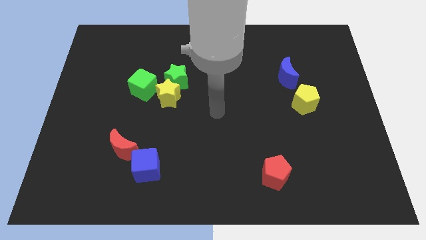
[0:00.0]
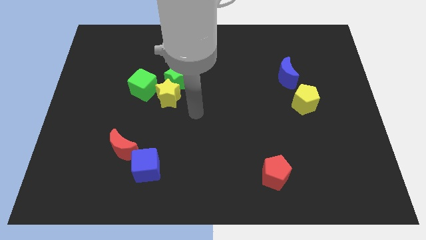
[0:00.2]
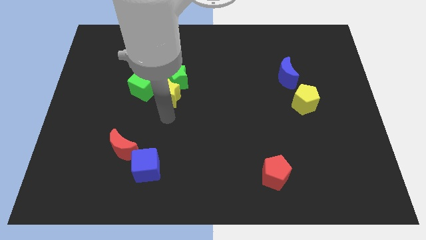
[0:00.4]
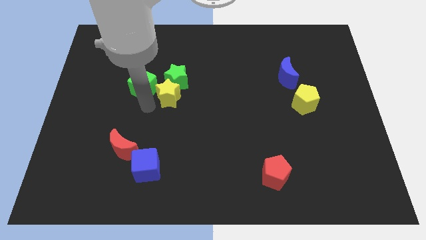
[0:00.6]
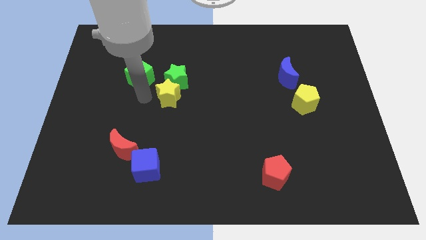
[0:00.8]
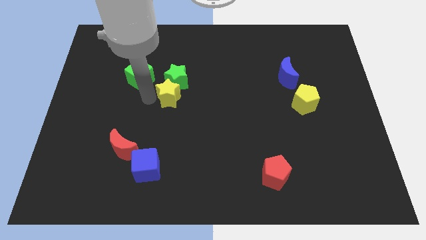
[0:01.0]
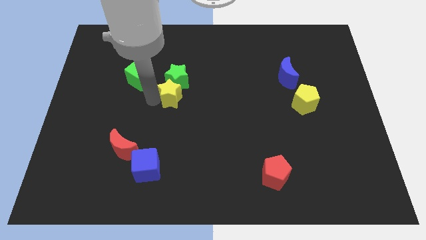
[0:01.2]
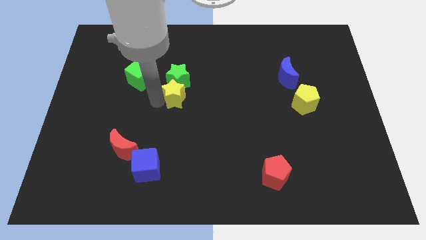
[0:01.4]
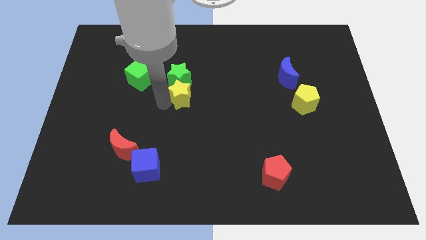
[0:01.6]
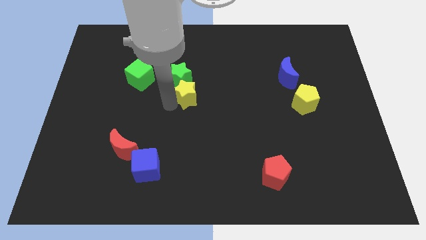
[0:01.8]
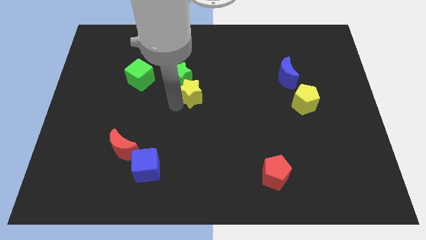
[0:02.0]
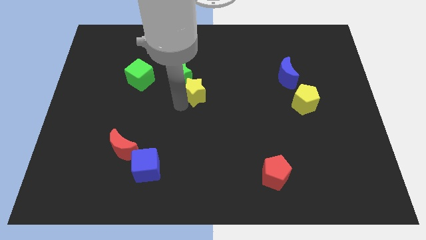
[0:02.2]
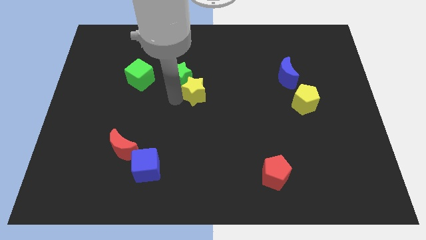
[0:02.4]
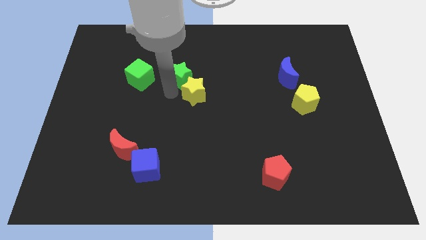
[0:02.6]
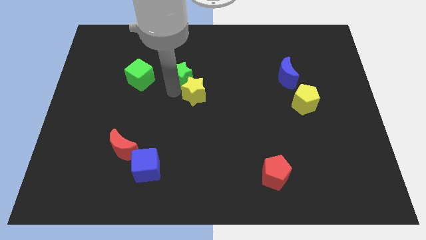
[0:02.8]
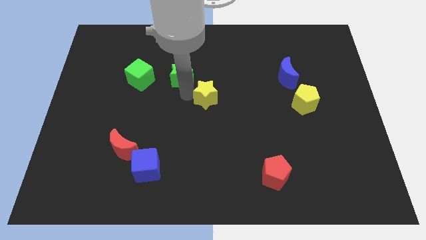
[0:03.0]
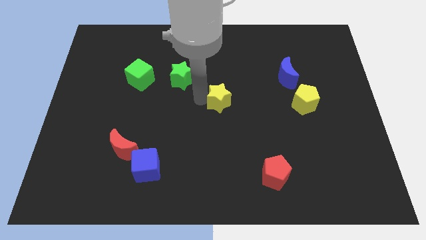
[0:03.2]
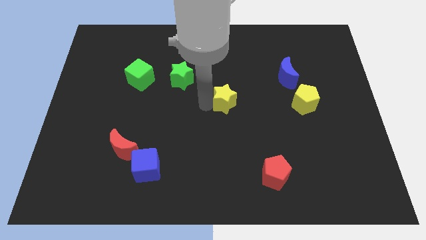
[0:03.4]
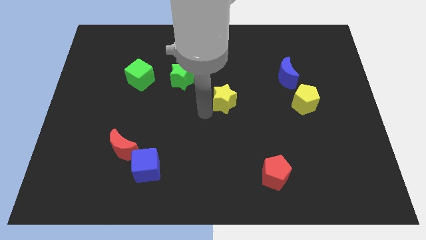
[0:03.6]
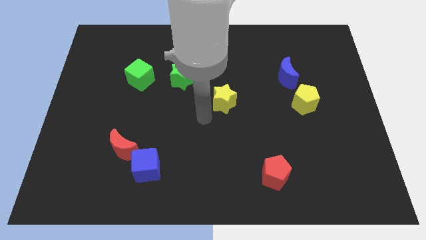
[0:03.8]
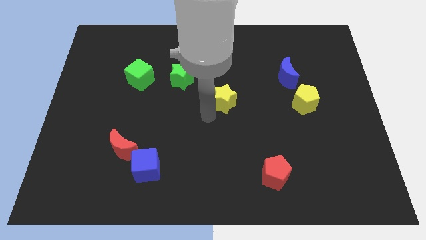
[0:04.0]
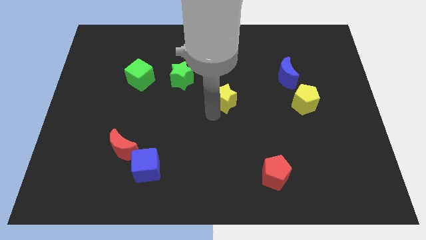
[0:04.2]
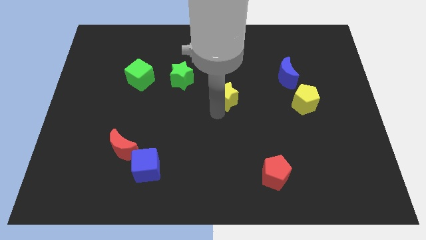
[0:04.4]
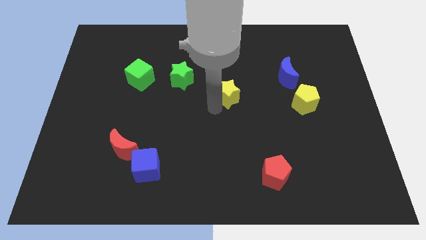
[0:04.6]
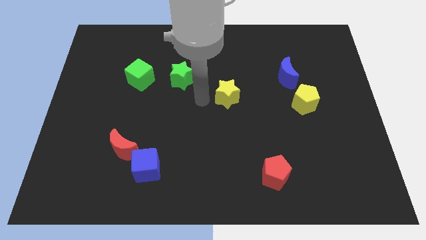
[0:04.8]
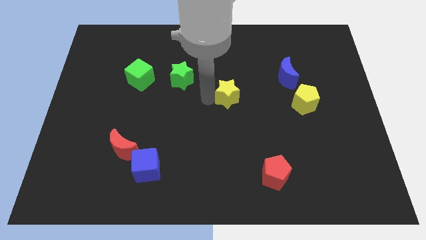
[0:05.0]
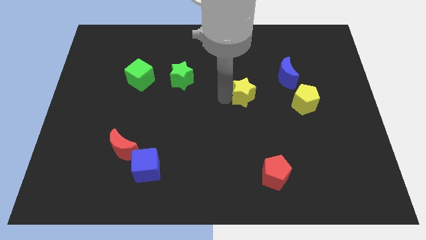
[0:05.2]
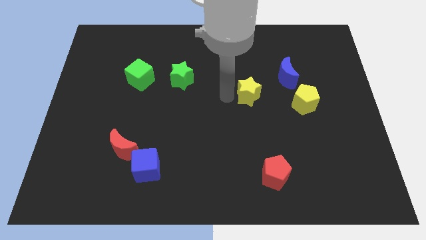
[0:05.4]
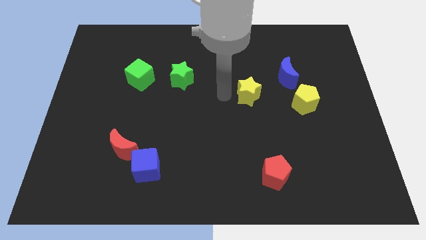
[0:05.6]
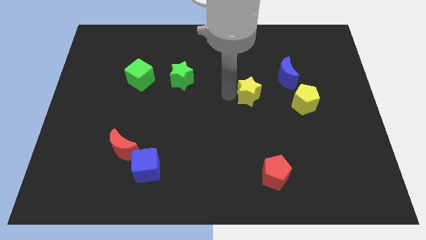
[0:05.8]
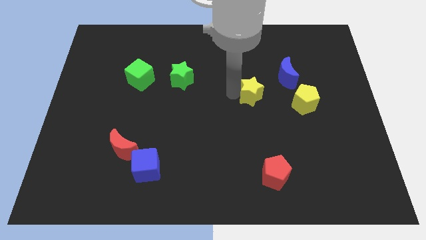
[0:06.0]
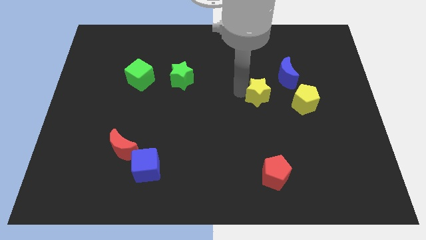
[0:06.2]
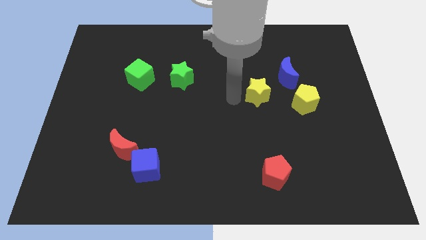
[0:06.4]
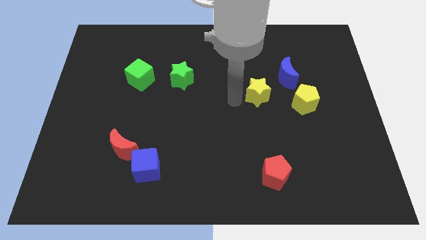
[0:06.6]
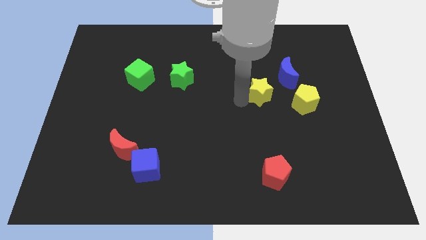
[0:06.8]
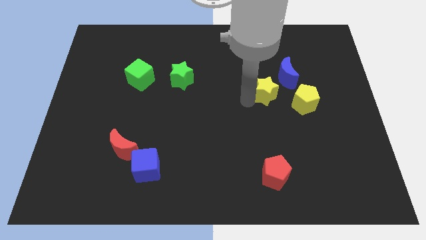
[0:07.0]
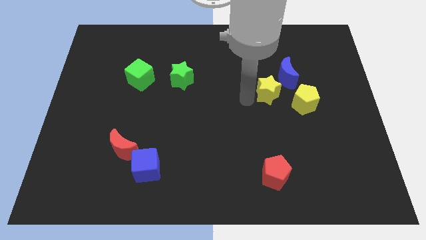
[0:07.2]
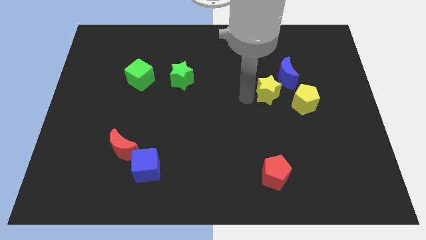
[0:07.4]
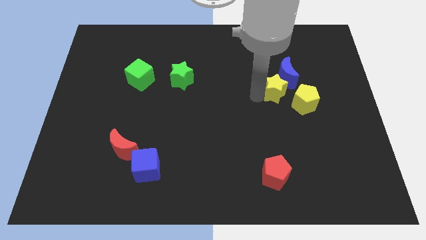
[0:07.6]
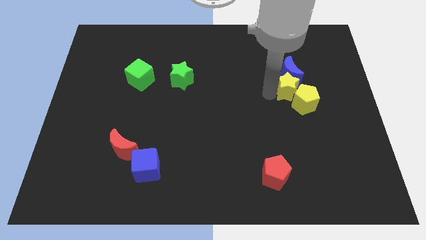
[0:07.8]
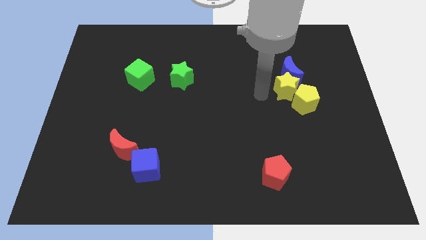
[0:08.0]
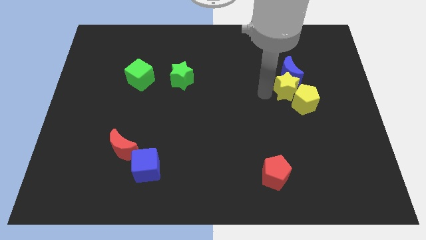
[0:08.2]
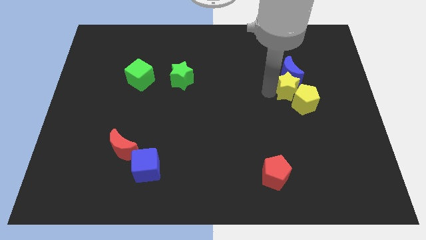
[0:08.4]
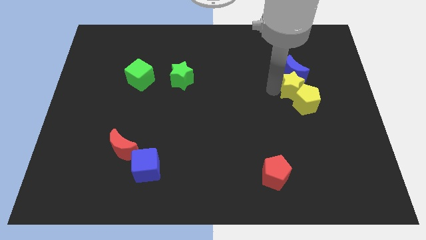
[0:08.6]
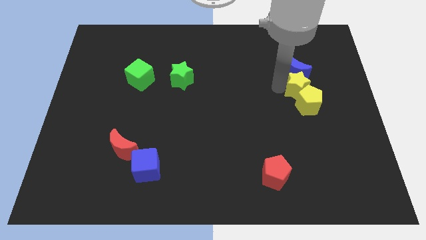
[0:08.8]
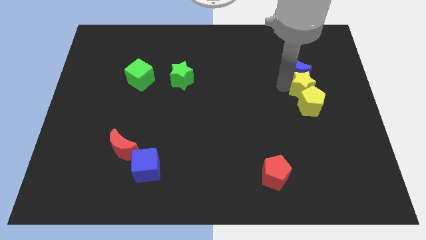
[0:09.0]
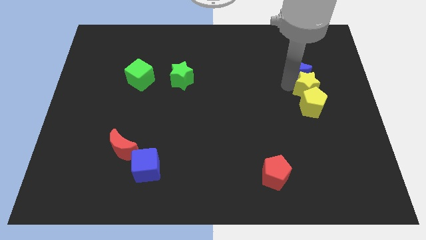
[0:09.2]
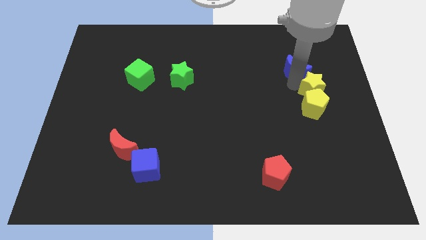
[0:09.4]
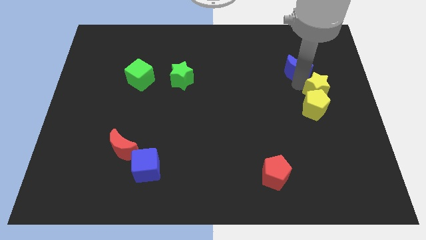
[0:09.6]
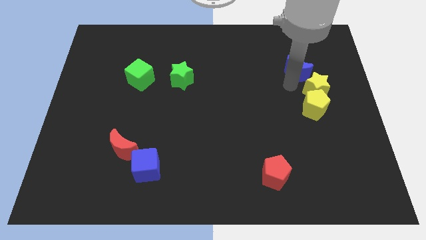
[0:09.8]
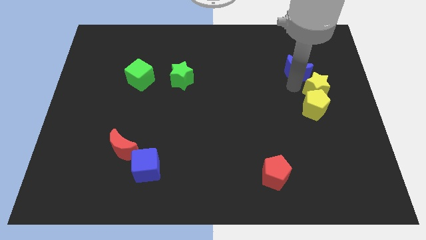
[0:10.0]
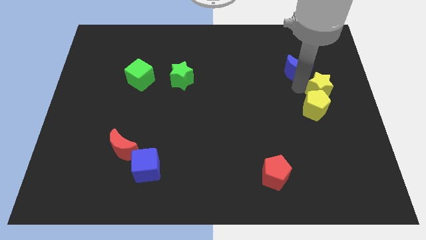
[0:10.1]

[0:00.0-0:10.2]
put the yellow star to the center right
